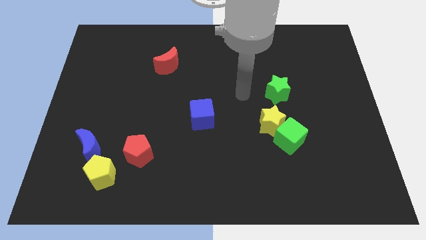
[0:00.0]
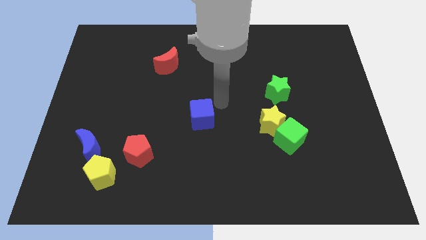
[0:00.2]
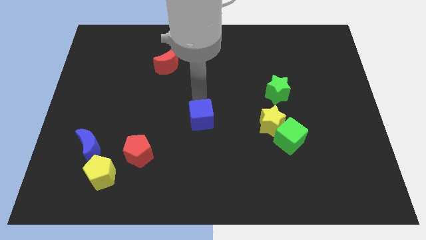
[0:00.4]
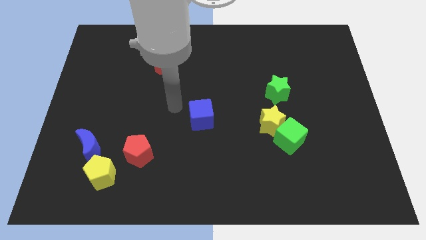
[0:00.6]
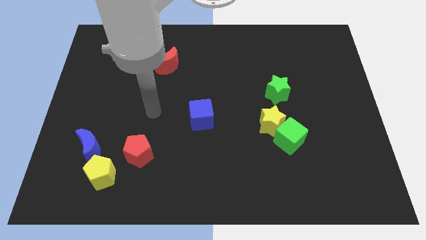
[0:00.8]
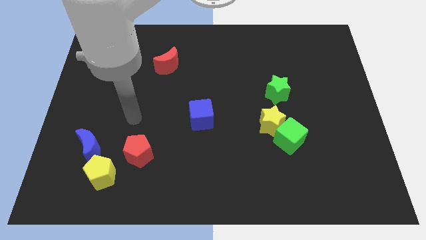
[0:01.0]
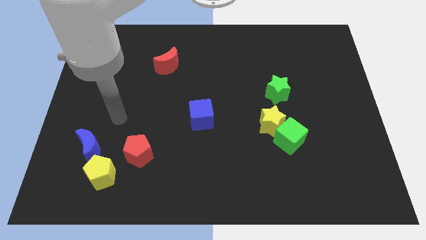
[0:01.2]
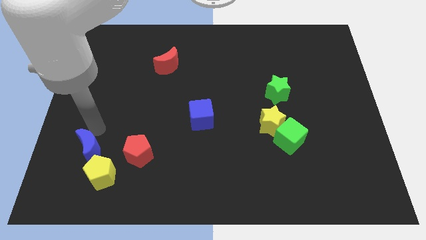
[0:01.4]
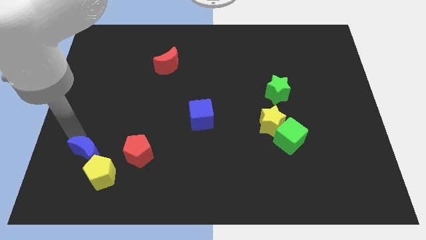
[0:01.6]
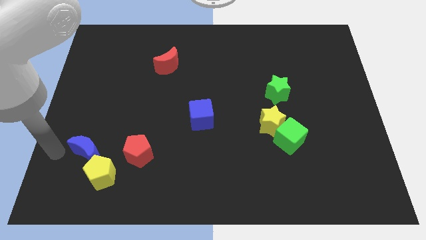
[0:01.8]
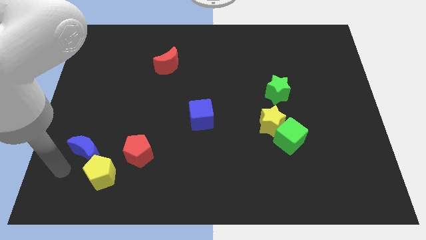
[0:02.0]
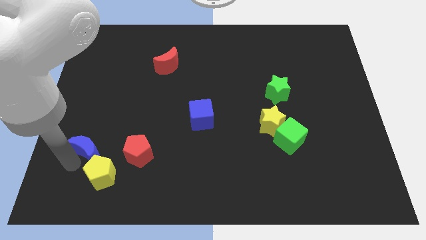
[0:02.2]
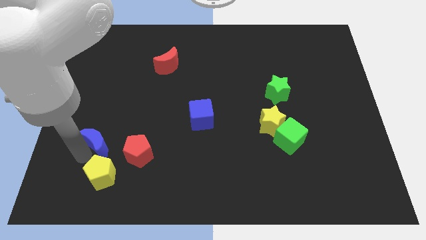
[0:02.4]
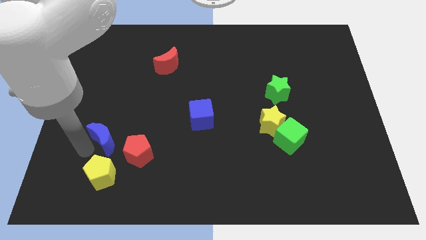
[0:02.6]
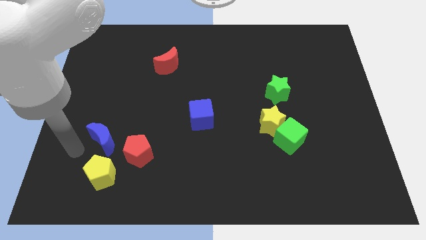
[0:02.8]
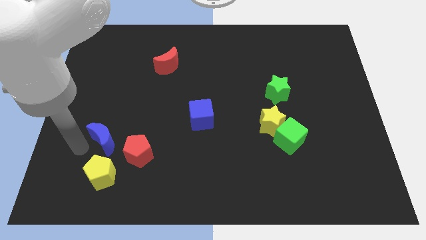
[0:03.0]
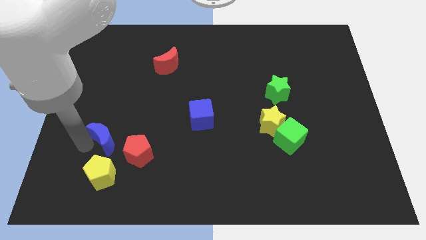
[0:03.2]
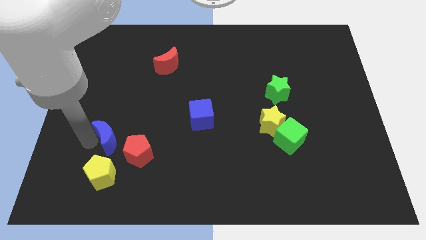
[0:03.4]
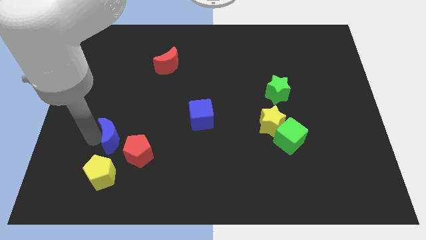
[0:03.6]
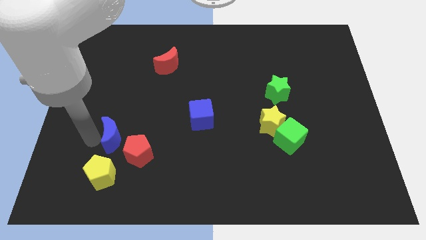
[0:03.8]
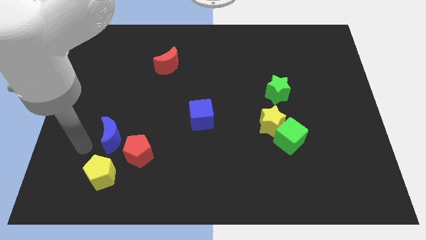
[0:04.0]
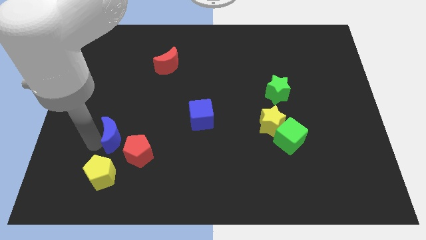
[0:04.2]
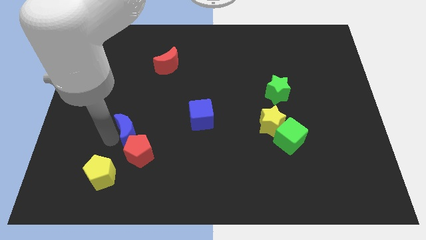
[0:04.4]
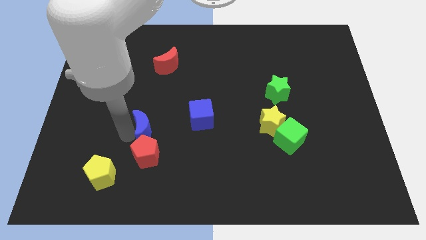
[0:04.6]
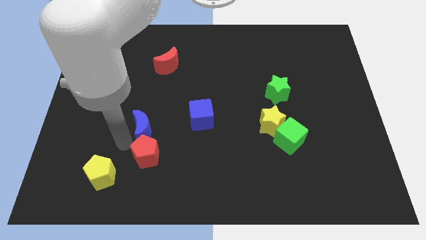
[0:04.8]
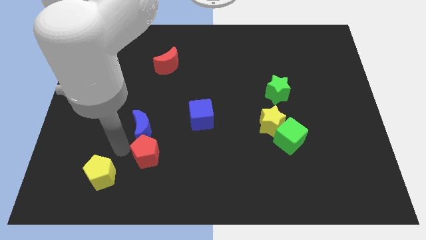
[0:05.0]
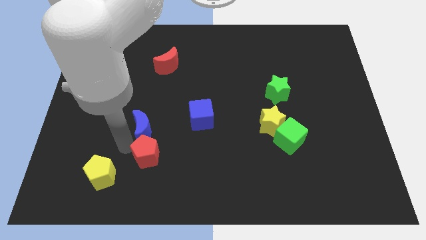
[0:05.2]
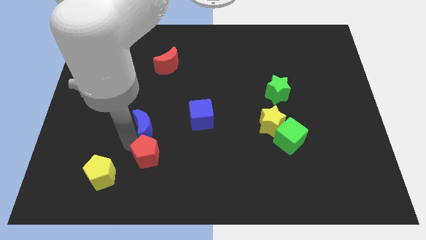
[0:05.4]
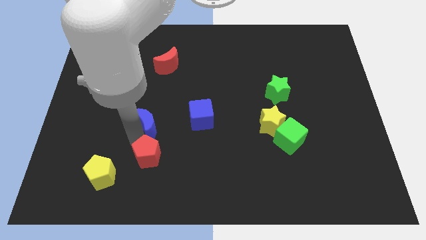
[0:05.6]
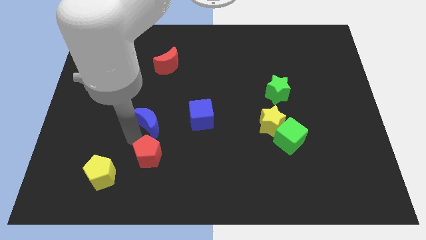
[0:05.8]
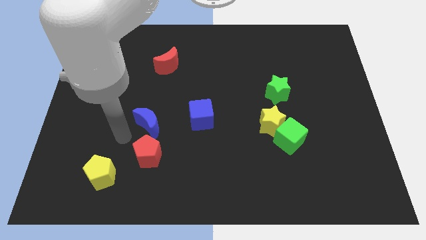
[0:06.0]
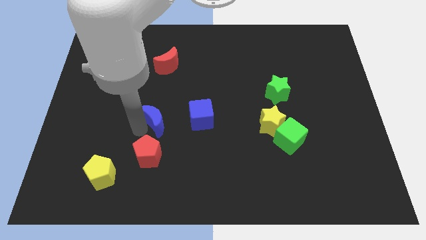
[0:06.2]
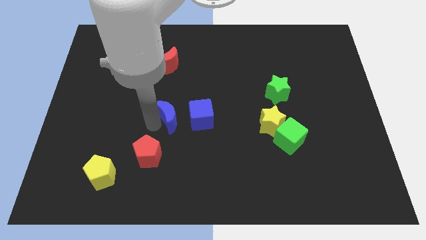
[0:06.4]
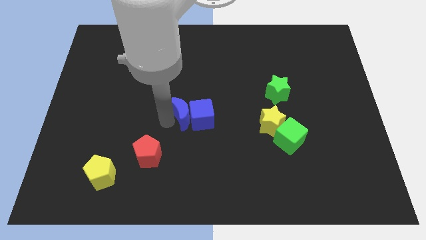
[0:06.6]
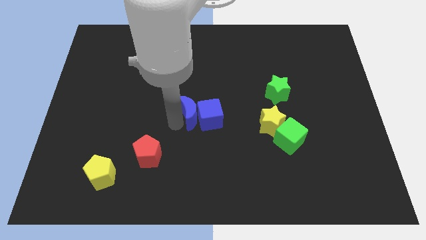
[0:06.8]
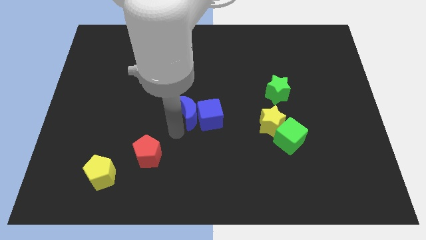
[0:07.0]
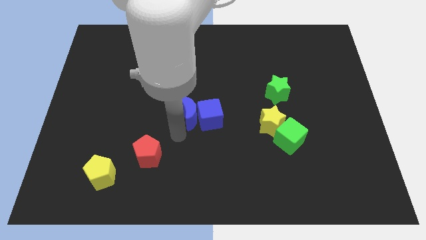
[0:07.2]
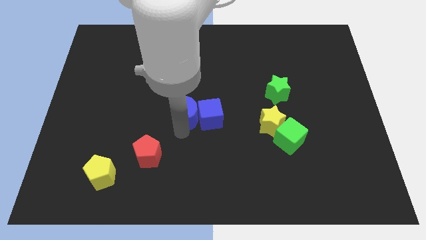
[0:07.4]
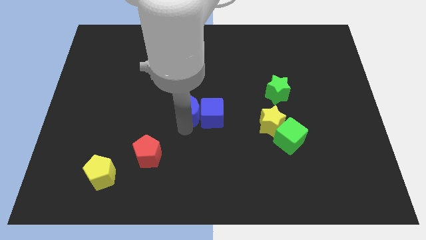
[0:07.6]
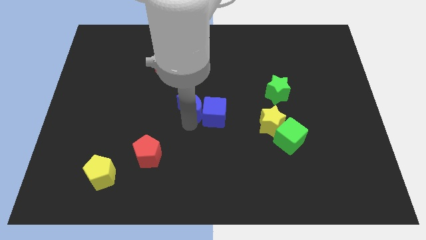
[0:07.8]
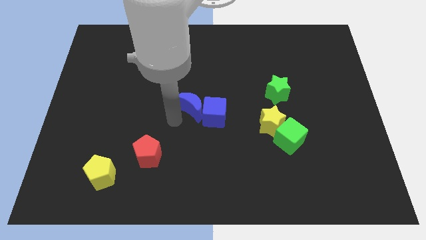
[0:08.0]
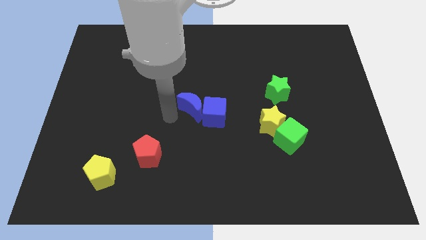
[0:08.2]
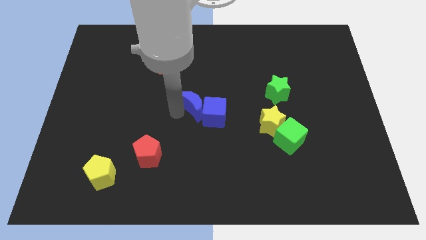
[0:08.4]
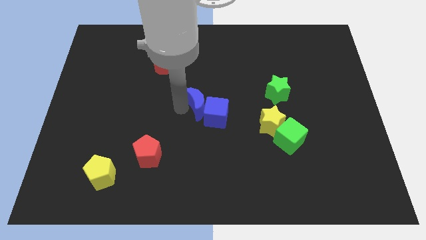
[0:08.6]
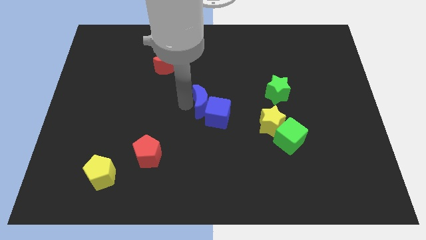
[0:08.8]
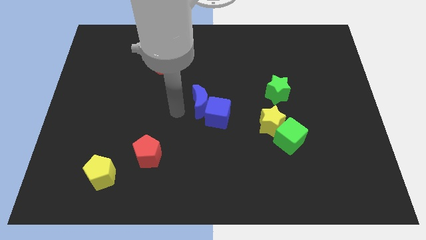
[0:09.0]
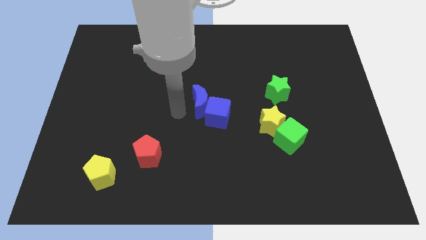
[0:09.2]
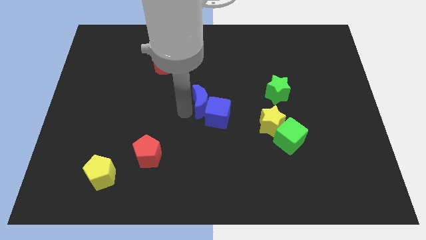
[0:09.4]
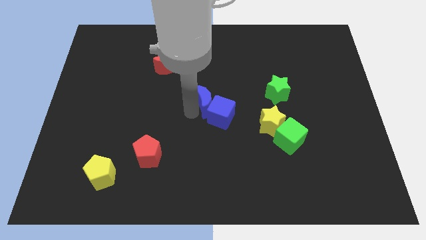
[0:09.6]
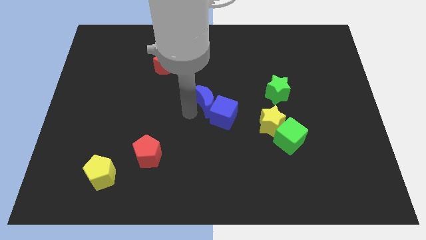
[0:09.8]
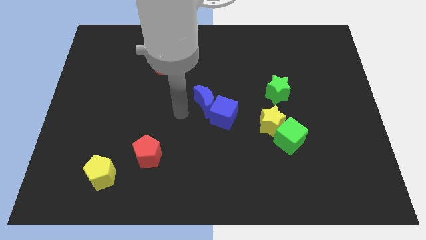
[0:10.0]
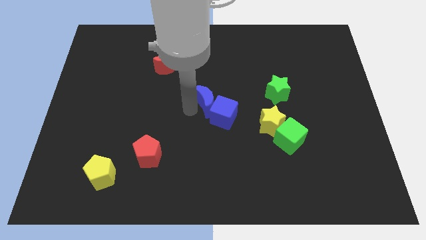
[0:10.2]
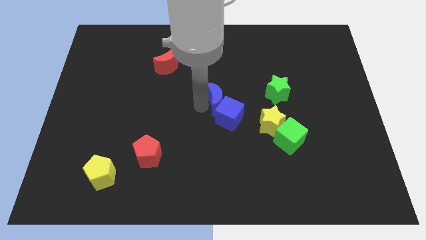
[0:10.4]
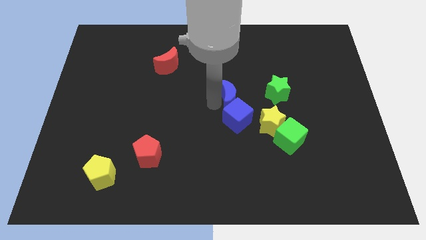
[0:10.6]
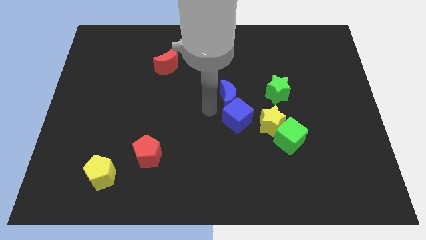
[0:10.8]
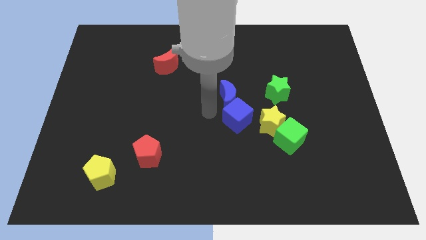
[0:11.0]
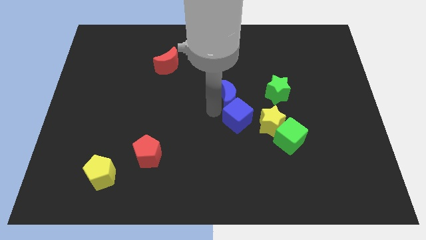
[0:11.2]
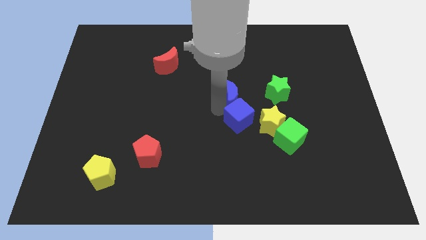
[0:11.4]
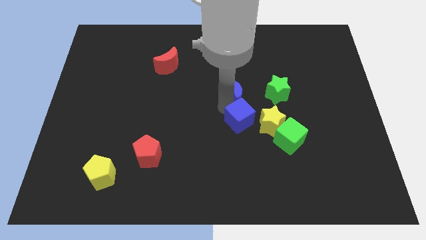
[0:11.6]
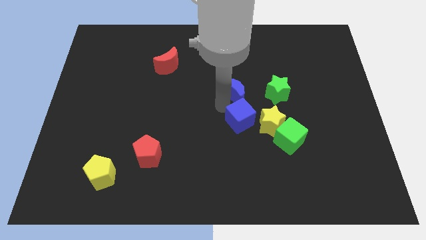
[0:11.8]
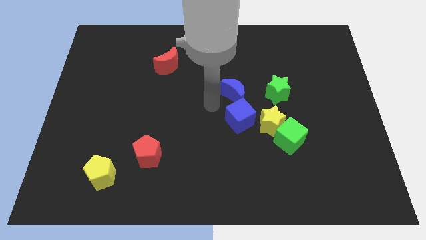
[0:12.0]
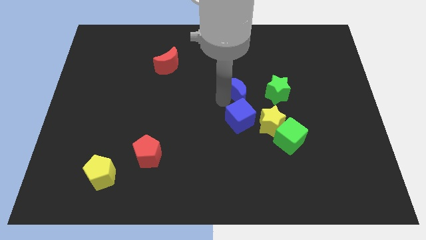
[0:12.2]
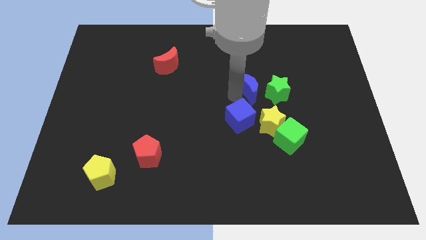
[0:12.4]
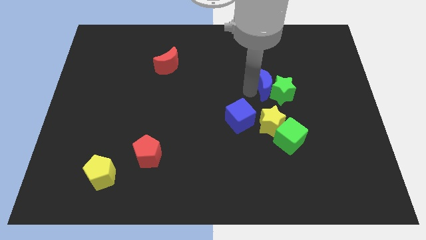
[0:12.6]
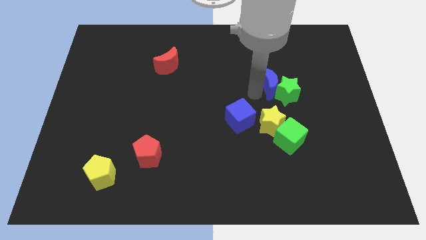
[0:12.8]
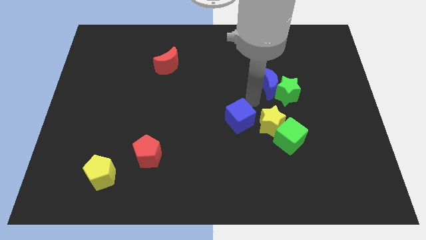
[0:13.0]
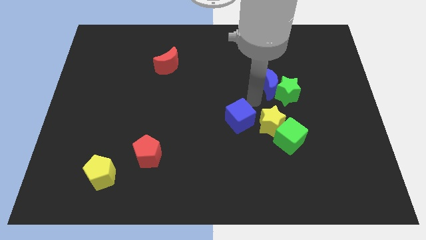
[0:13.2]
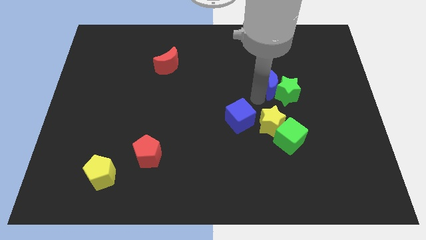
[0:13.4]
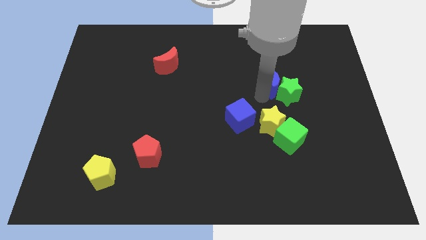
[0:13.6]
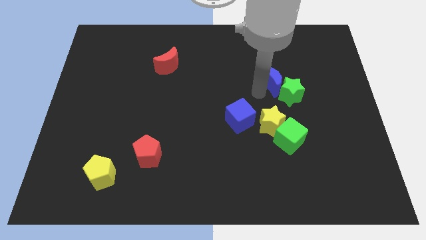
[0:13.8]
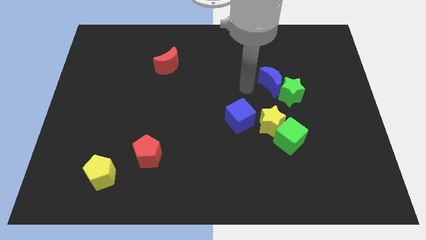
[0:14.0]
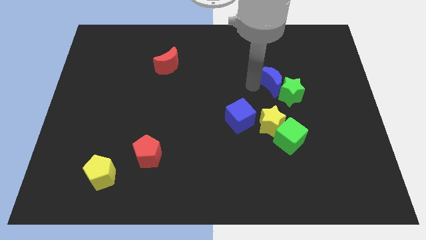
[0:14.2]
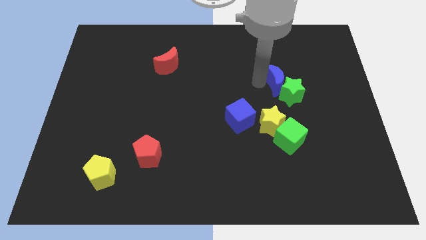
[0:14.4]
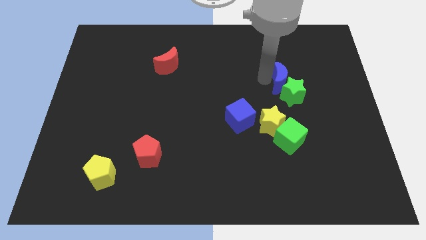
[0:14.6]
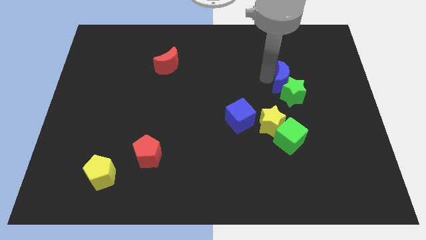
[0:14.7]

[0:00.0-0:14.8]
move the blue moon diagonally up and to the right of the green star
